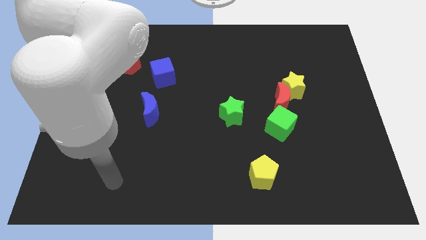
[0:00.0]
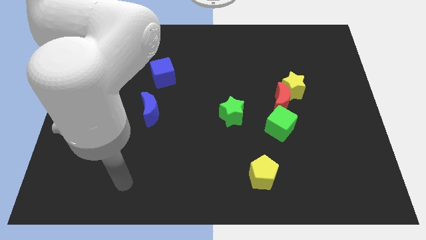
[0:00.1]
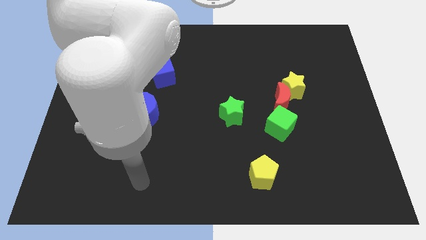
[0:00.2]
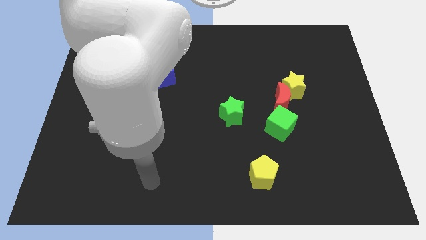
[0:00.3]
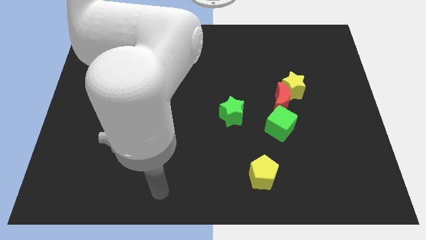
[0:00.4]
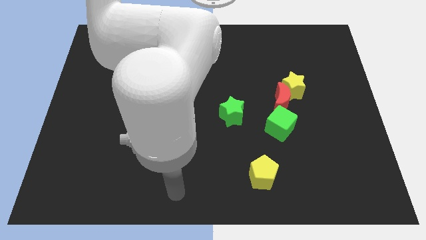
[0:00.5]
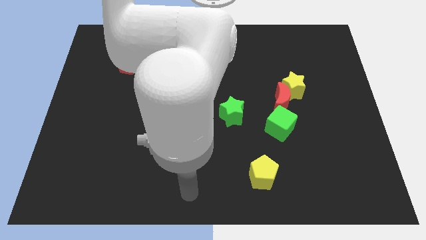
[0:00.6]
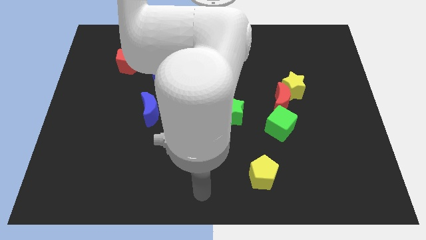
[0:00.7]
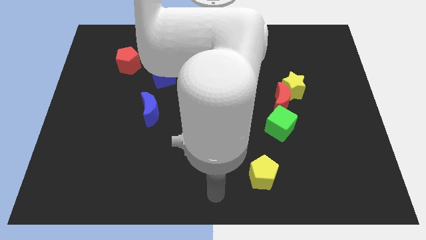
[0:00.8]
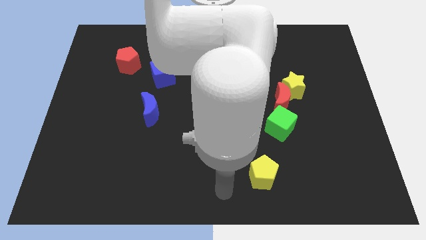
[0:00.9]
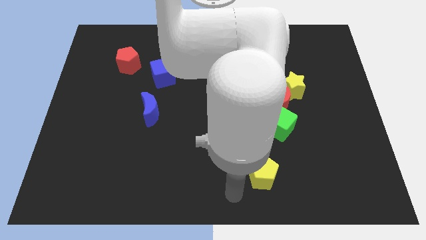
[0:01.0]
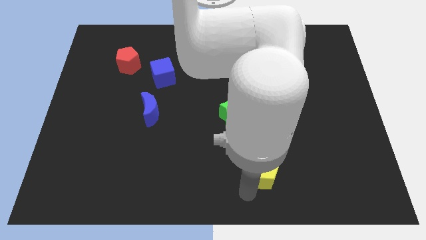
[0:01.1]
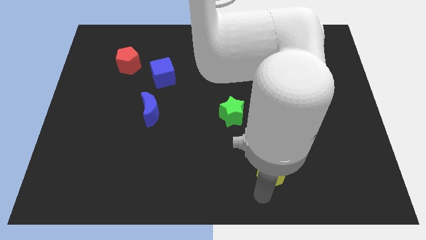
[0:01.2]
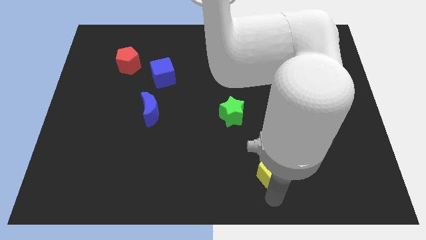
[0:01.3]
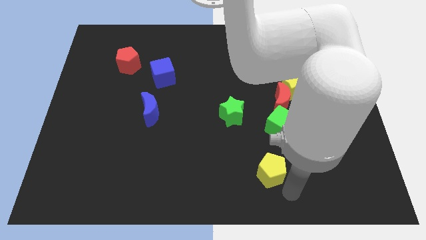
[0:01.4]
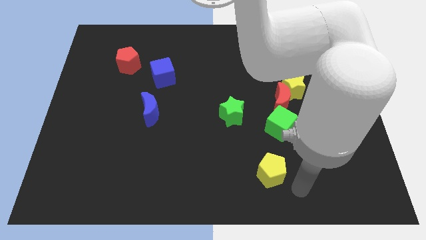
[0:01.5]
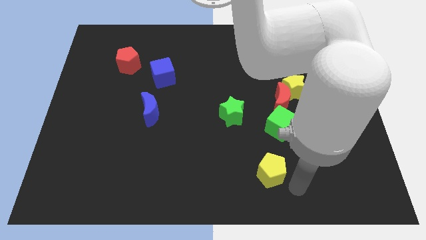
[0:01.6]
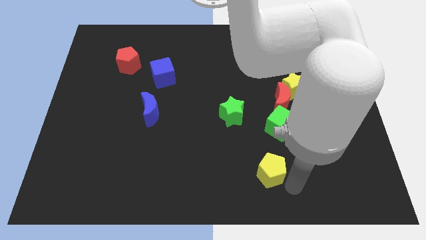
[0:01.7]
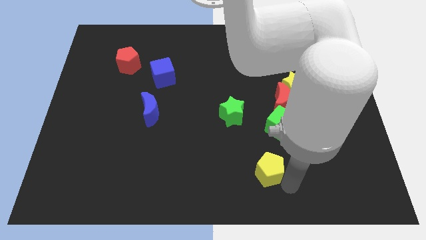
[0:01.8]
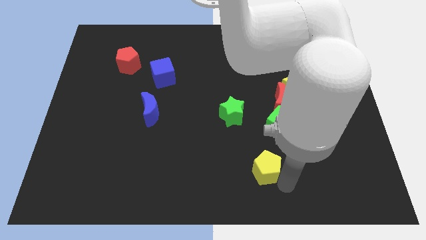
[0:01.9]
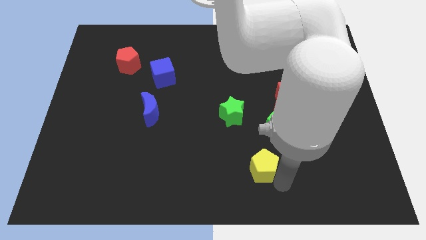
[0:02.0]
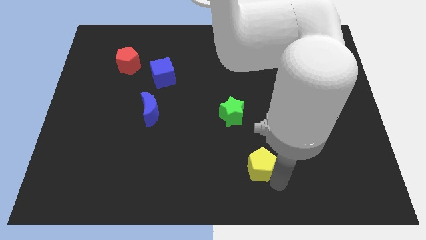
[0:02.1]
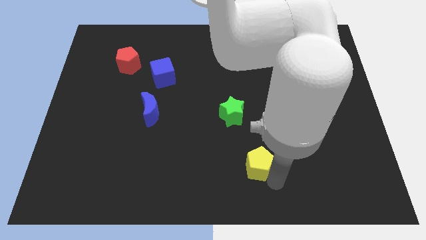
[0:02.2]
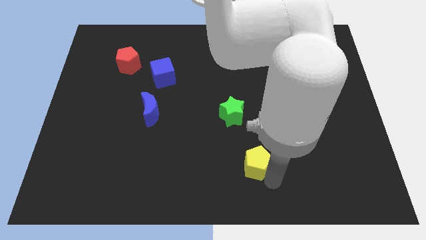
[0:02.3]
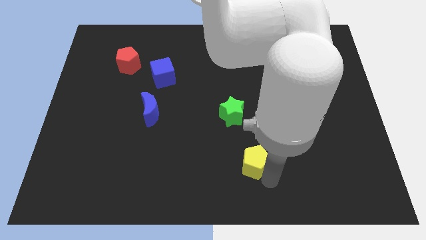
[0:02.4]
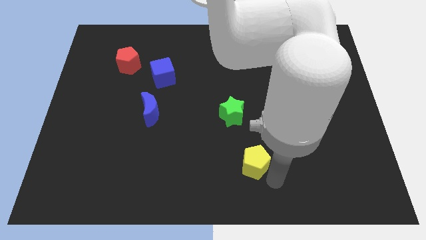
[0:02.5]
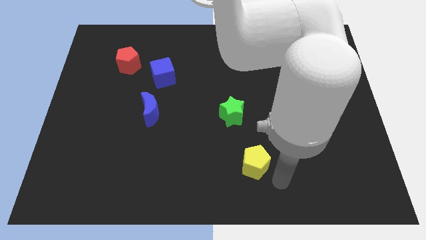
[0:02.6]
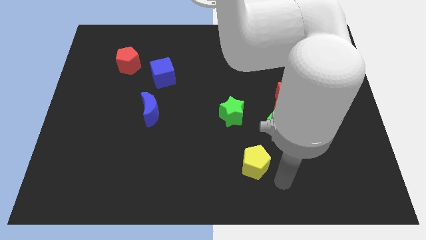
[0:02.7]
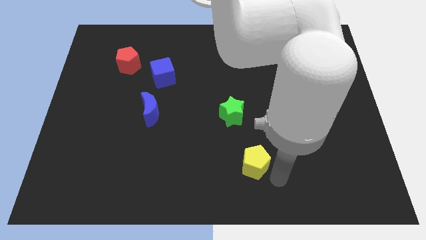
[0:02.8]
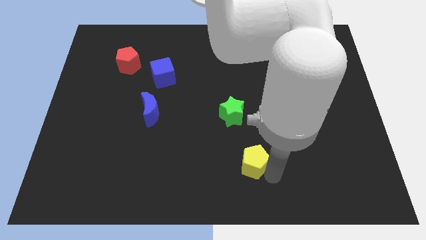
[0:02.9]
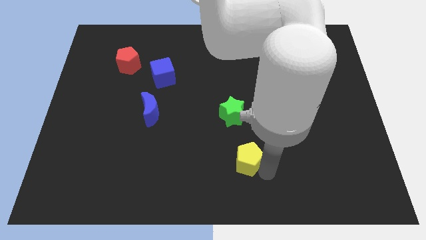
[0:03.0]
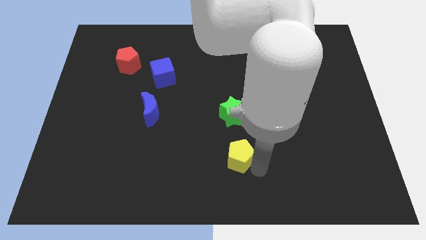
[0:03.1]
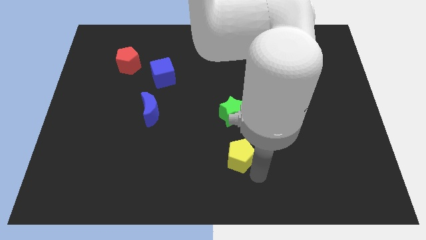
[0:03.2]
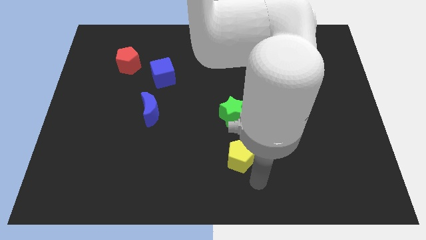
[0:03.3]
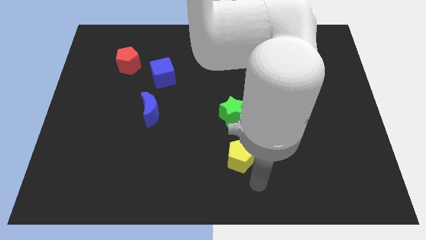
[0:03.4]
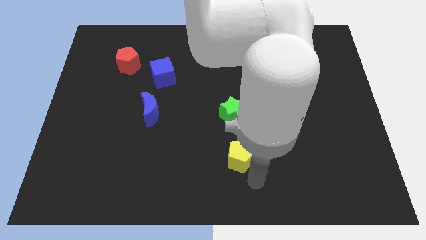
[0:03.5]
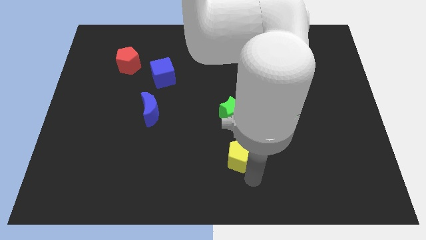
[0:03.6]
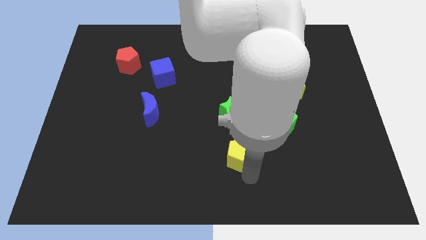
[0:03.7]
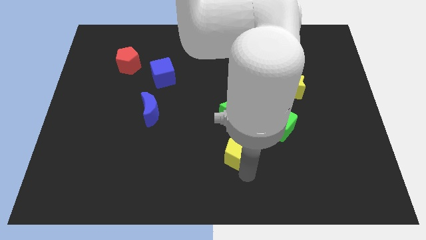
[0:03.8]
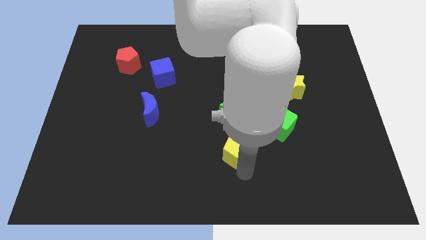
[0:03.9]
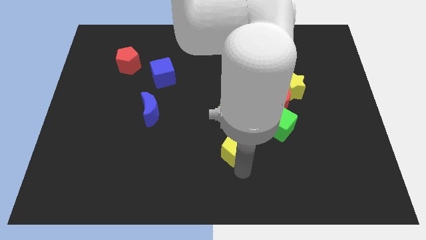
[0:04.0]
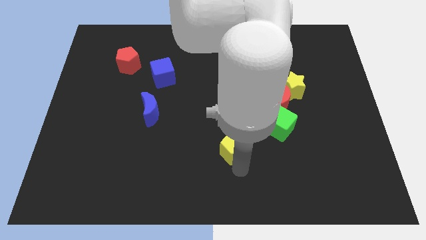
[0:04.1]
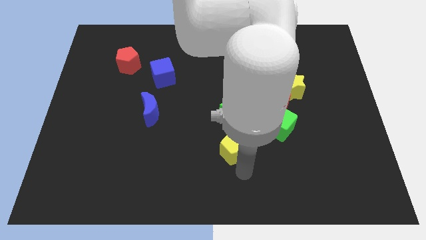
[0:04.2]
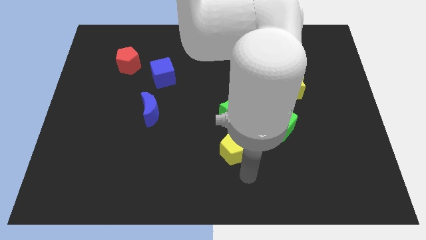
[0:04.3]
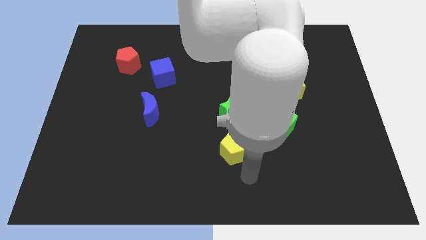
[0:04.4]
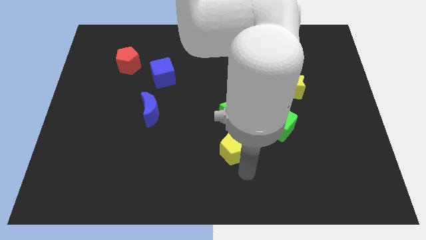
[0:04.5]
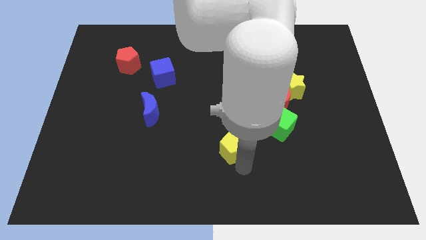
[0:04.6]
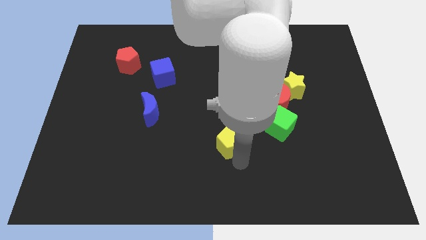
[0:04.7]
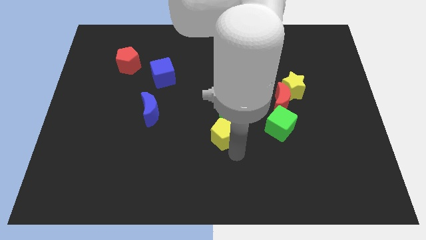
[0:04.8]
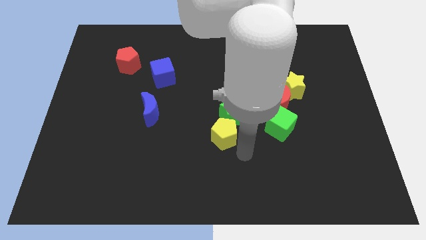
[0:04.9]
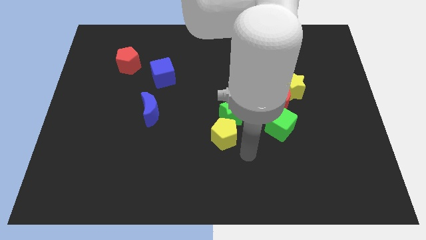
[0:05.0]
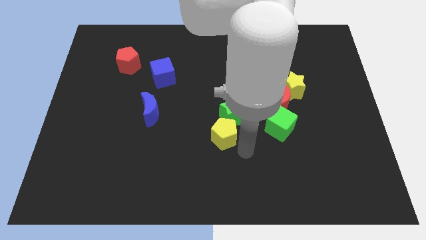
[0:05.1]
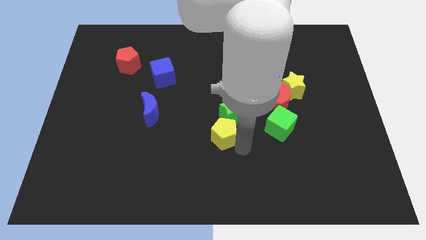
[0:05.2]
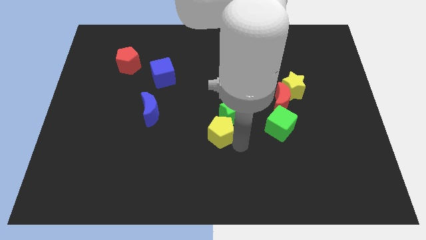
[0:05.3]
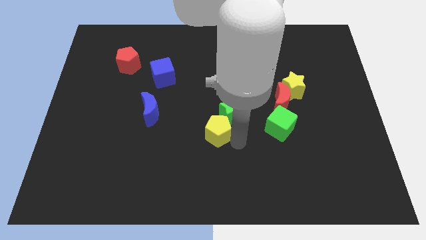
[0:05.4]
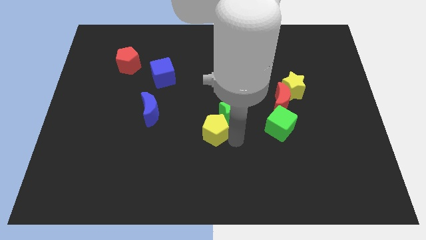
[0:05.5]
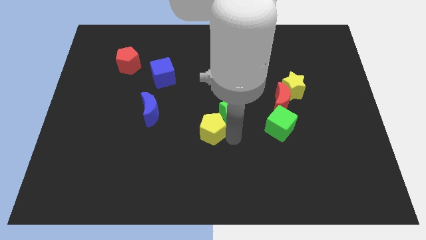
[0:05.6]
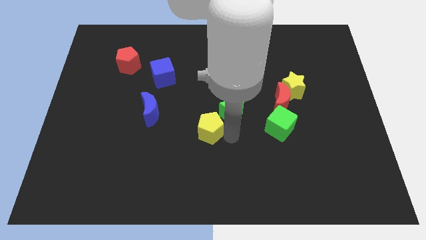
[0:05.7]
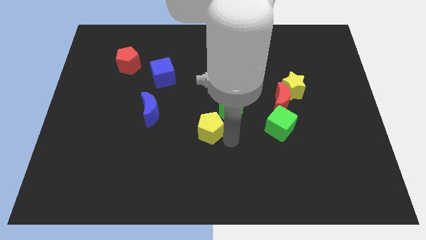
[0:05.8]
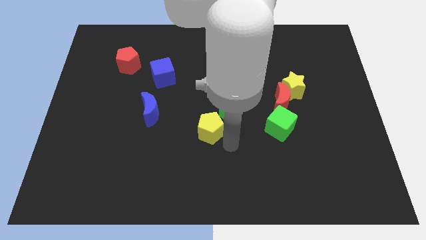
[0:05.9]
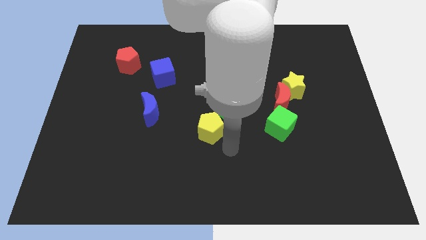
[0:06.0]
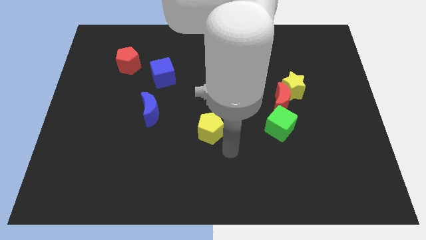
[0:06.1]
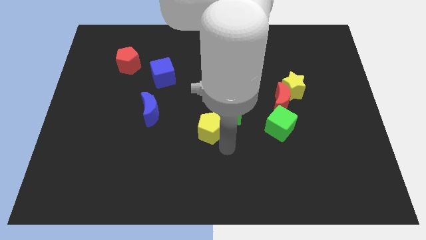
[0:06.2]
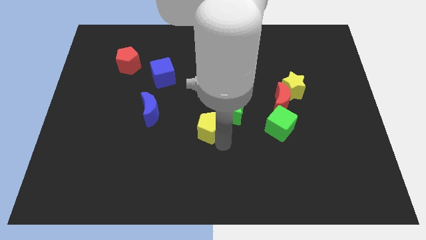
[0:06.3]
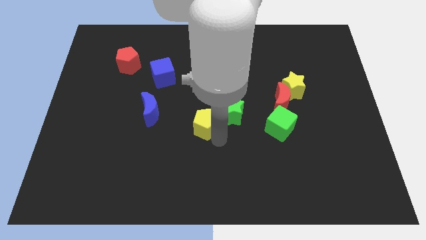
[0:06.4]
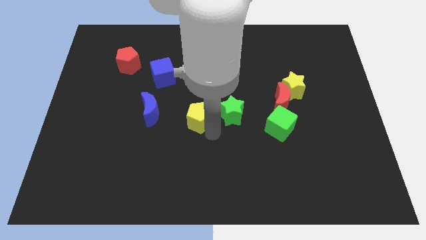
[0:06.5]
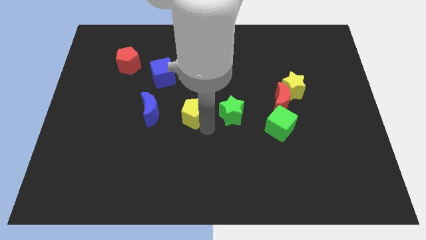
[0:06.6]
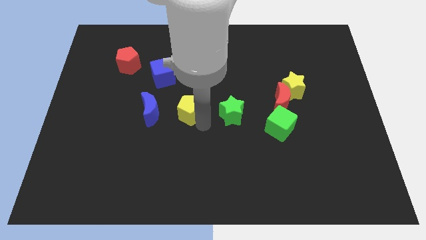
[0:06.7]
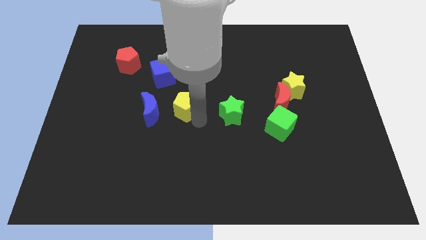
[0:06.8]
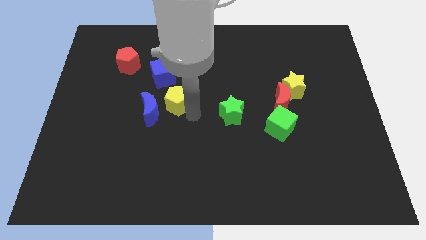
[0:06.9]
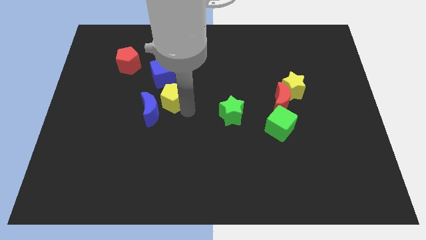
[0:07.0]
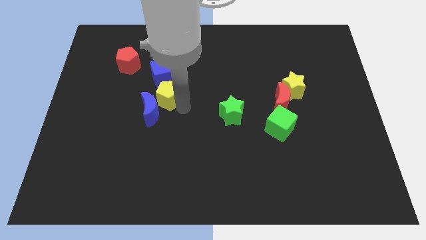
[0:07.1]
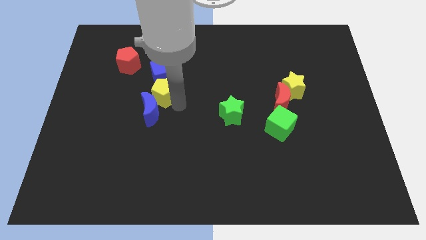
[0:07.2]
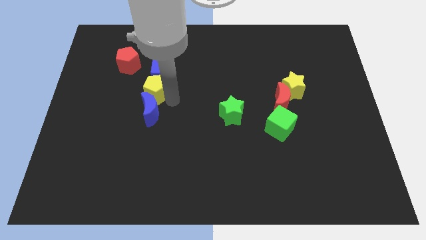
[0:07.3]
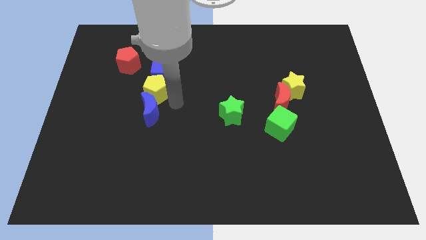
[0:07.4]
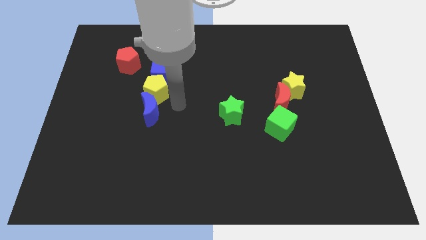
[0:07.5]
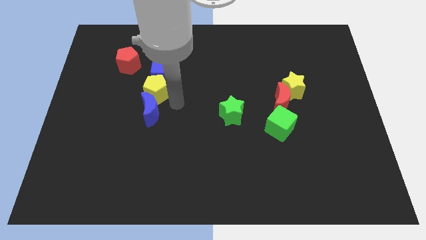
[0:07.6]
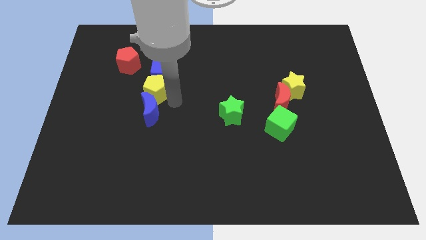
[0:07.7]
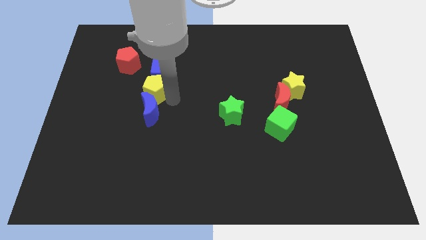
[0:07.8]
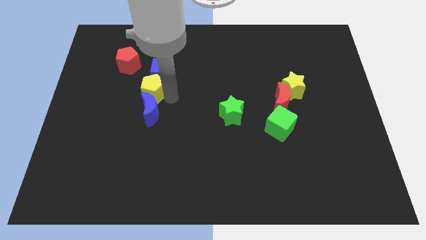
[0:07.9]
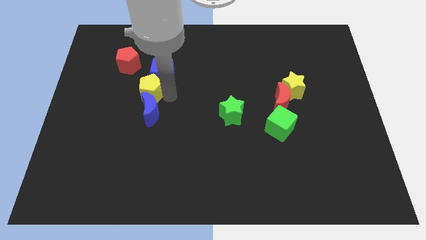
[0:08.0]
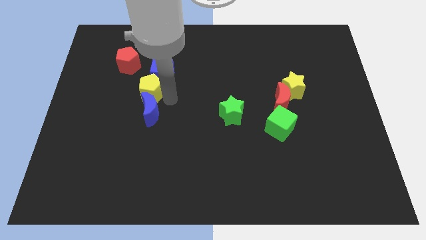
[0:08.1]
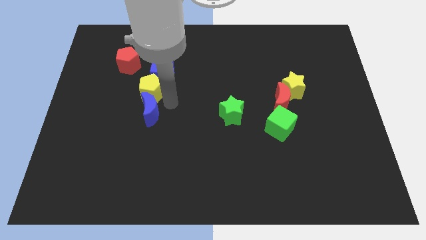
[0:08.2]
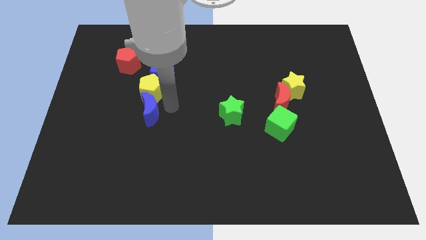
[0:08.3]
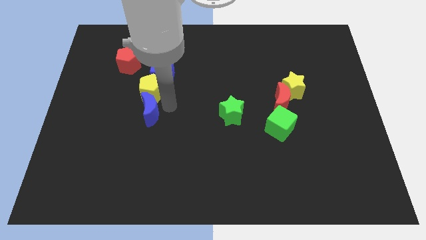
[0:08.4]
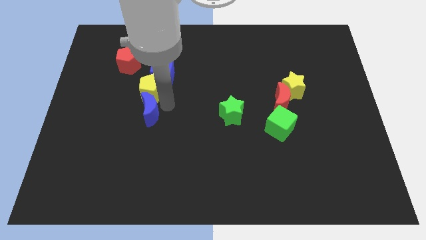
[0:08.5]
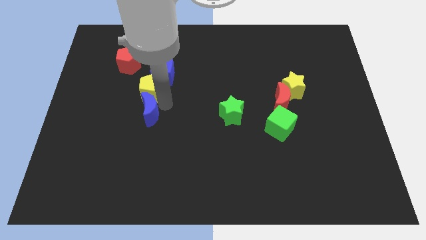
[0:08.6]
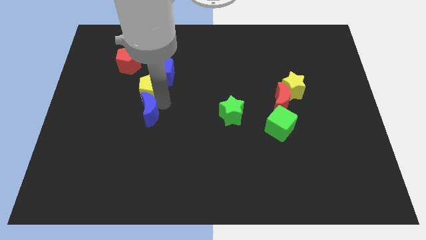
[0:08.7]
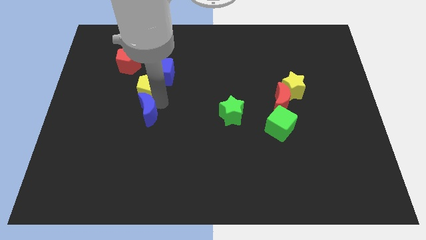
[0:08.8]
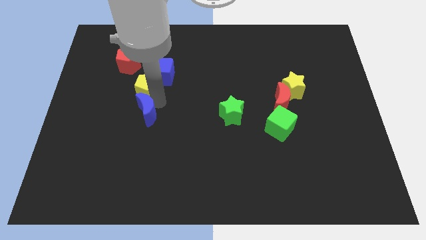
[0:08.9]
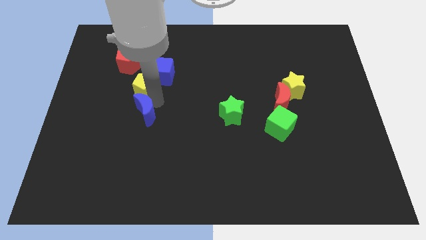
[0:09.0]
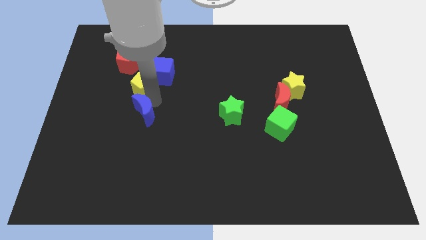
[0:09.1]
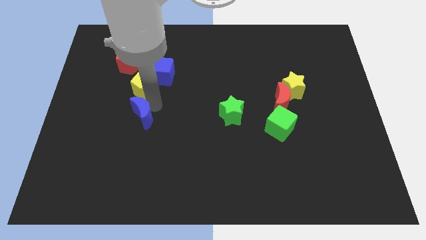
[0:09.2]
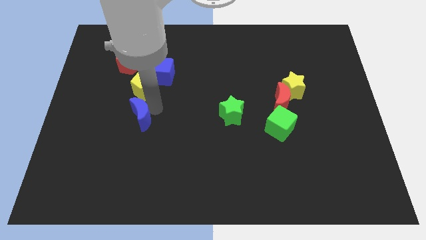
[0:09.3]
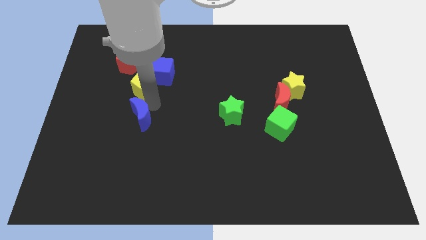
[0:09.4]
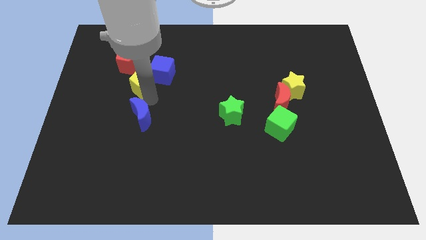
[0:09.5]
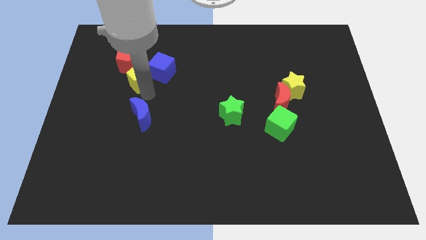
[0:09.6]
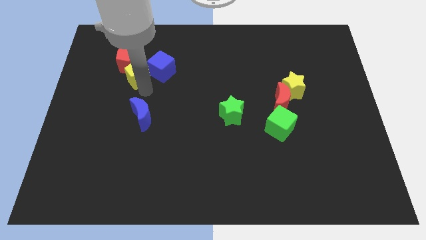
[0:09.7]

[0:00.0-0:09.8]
slide the yellow pentagon to the red pentagon
